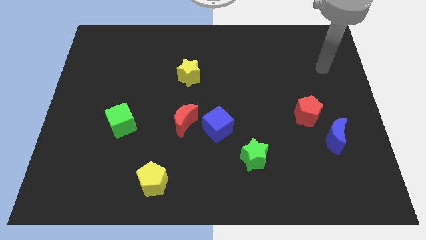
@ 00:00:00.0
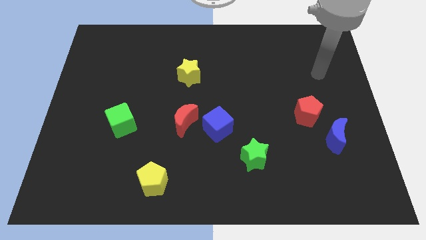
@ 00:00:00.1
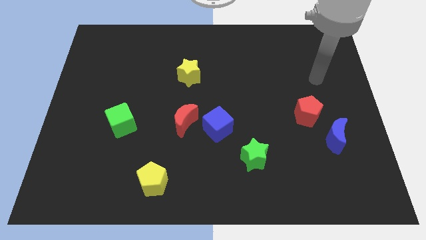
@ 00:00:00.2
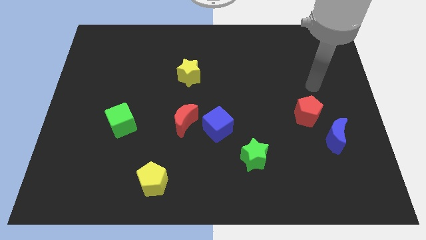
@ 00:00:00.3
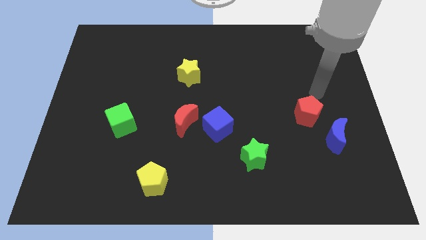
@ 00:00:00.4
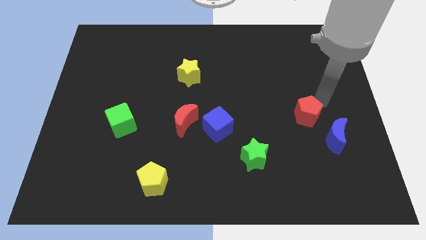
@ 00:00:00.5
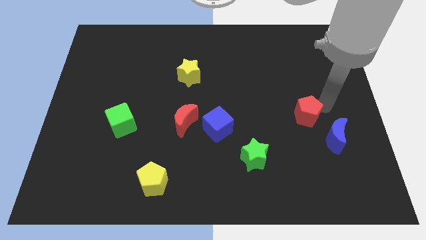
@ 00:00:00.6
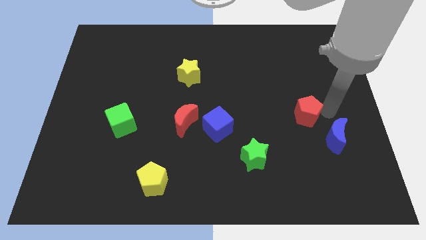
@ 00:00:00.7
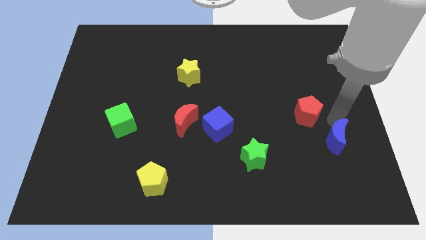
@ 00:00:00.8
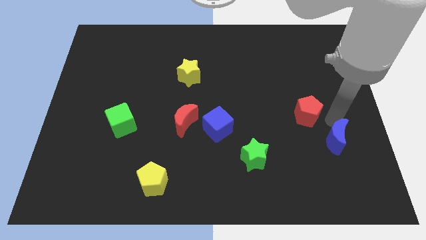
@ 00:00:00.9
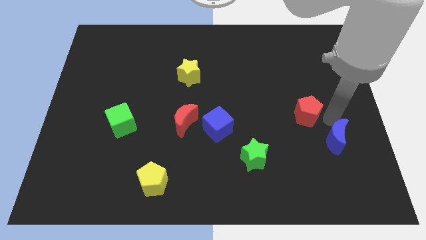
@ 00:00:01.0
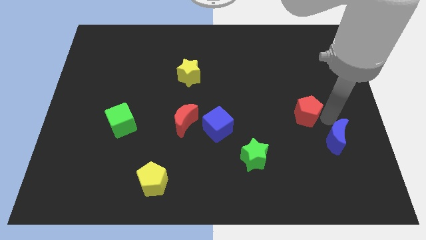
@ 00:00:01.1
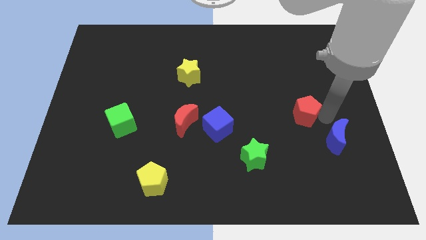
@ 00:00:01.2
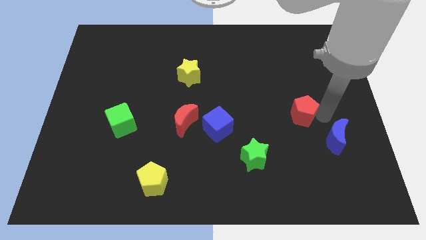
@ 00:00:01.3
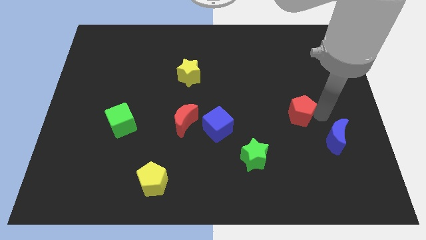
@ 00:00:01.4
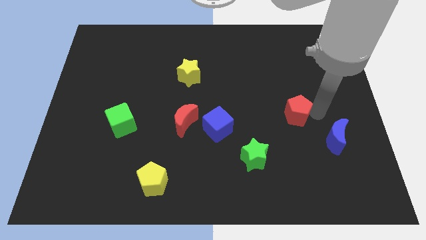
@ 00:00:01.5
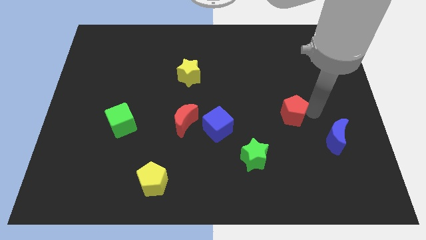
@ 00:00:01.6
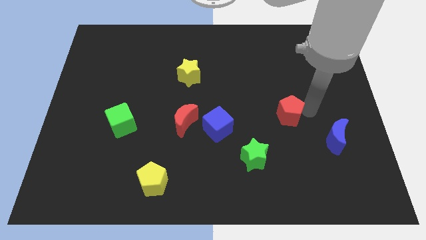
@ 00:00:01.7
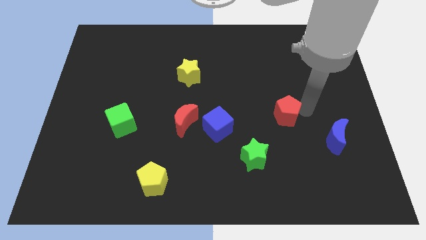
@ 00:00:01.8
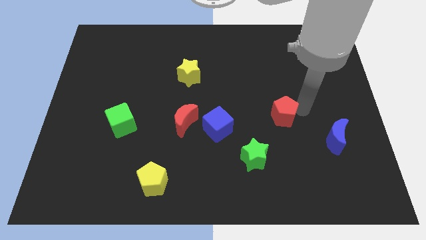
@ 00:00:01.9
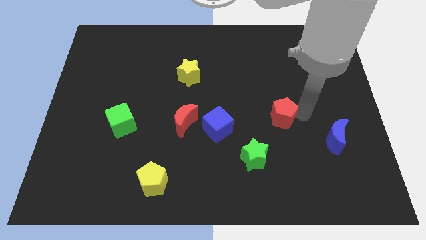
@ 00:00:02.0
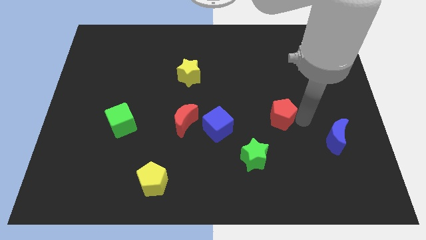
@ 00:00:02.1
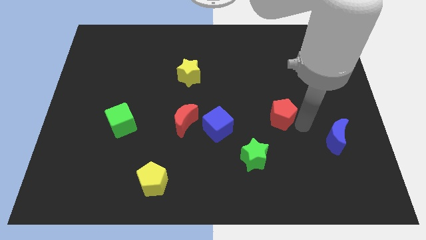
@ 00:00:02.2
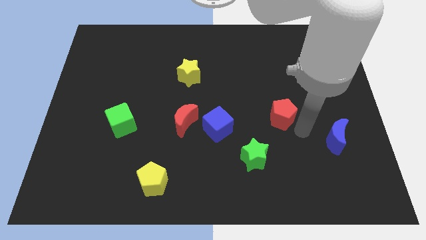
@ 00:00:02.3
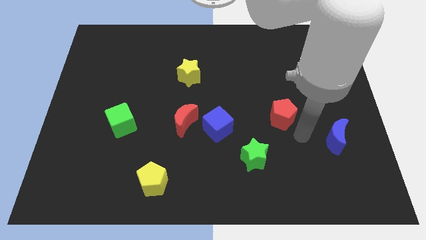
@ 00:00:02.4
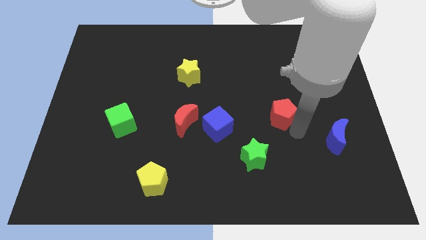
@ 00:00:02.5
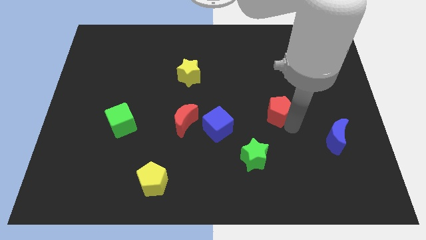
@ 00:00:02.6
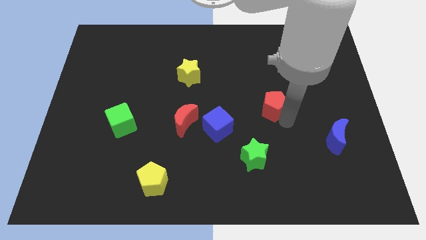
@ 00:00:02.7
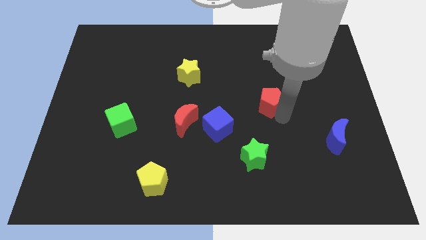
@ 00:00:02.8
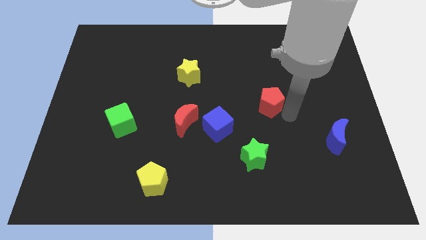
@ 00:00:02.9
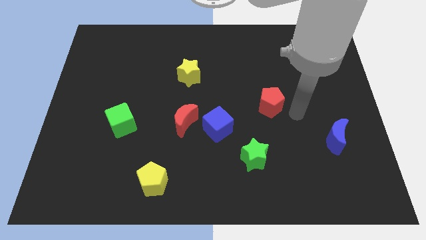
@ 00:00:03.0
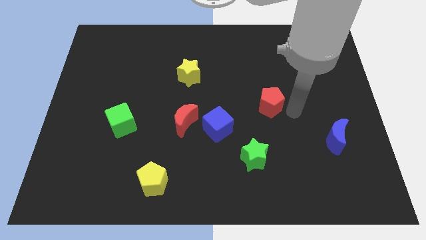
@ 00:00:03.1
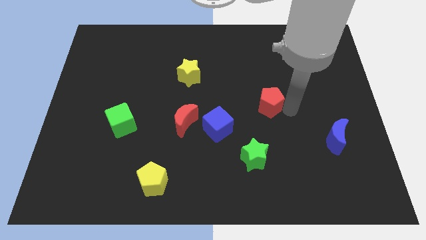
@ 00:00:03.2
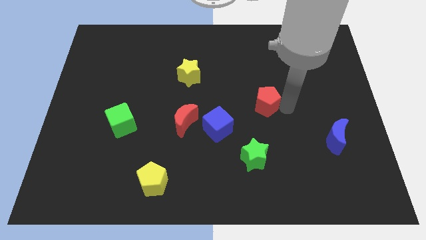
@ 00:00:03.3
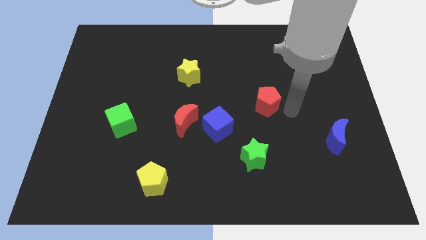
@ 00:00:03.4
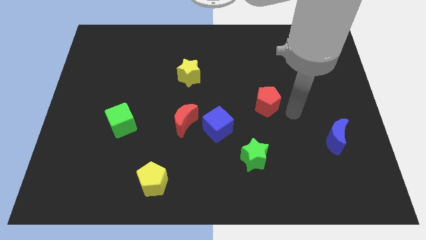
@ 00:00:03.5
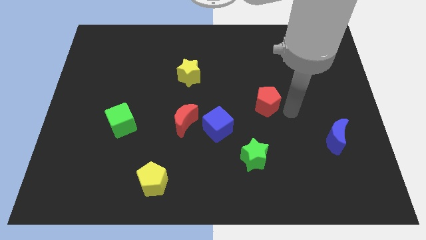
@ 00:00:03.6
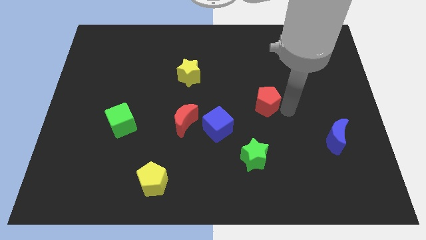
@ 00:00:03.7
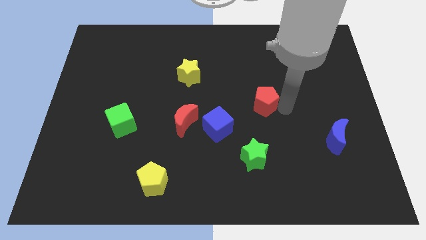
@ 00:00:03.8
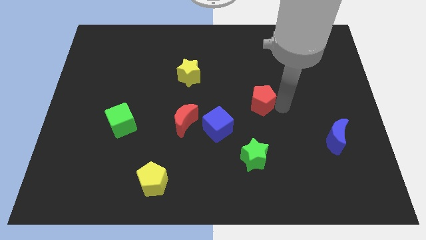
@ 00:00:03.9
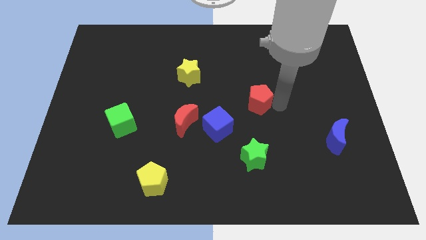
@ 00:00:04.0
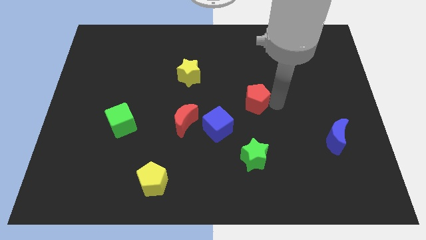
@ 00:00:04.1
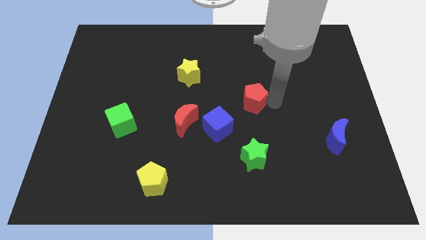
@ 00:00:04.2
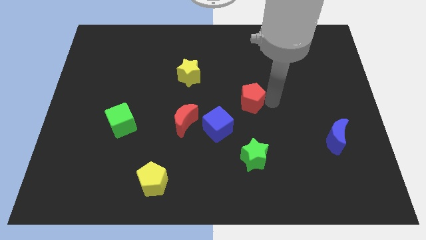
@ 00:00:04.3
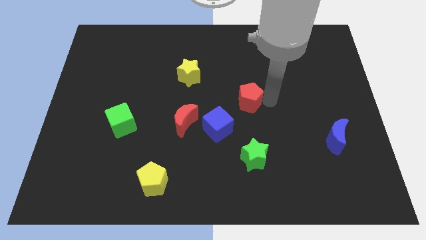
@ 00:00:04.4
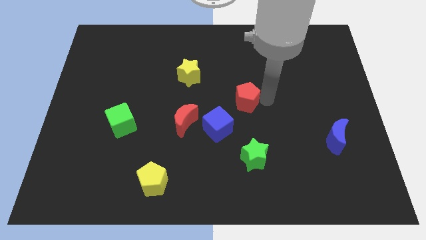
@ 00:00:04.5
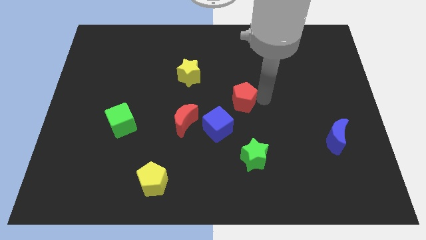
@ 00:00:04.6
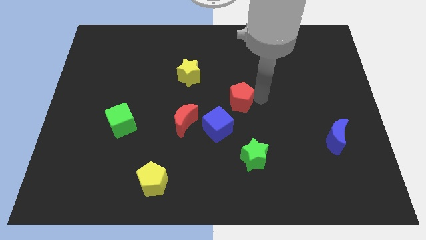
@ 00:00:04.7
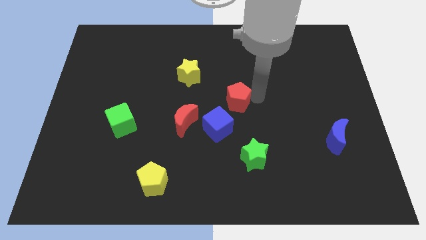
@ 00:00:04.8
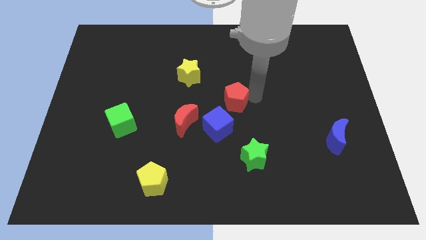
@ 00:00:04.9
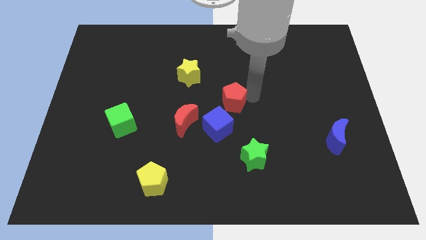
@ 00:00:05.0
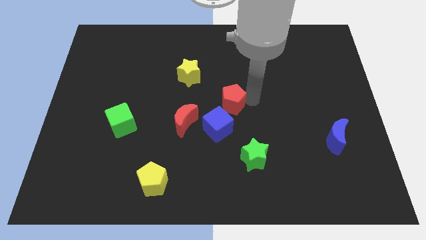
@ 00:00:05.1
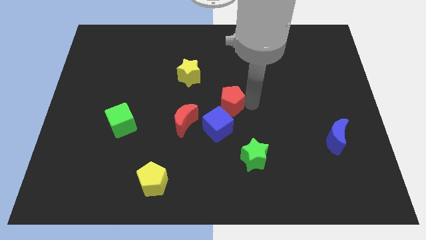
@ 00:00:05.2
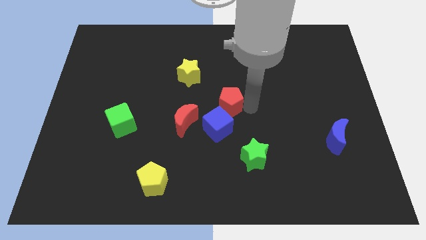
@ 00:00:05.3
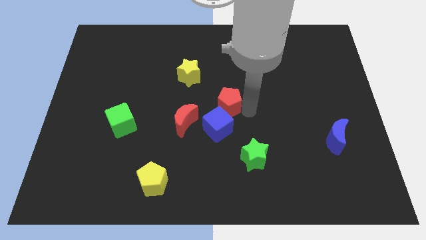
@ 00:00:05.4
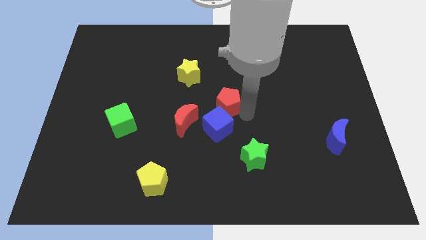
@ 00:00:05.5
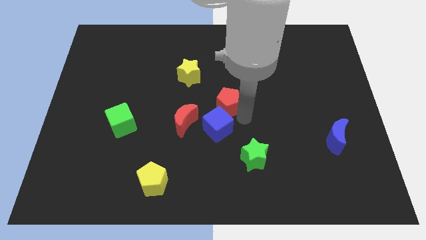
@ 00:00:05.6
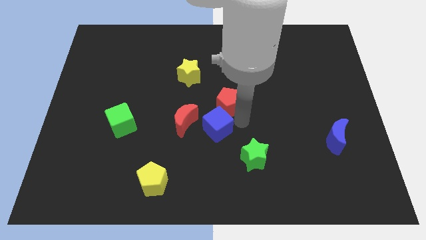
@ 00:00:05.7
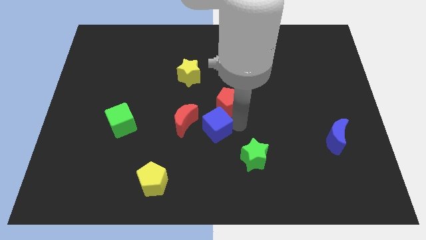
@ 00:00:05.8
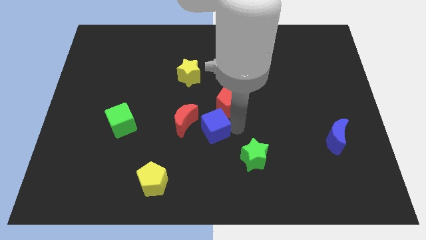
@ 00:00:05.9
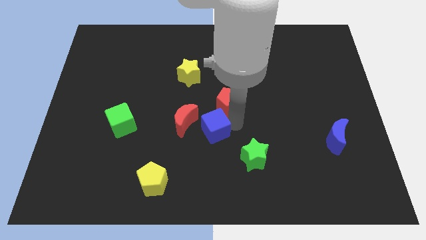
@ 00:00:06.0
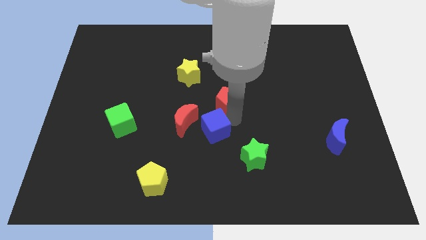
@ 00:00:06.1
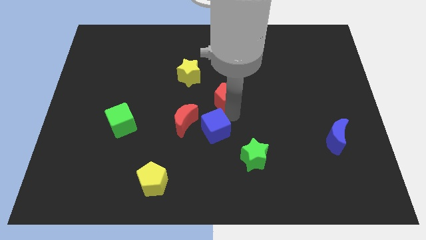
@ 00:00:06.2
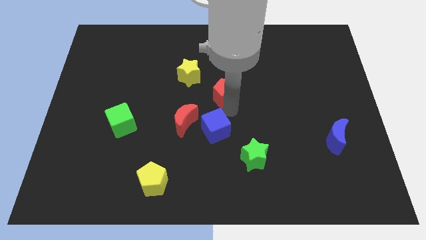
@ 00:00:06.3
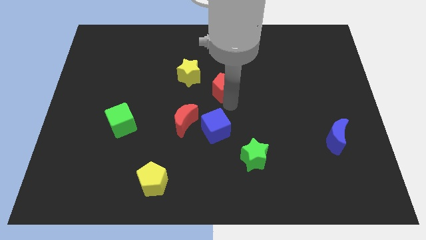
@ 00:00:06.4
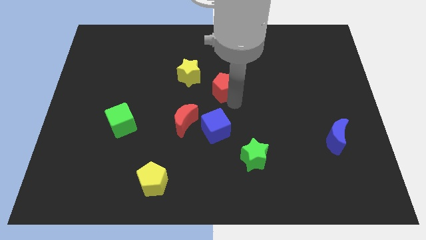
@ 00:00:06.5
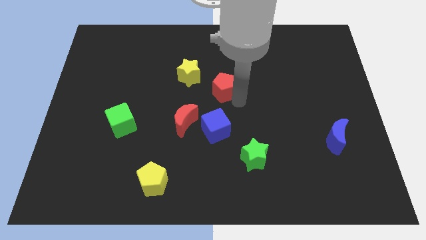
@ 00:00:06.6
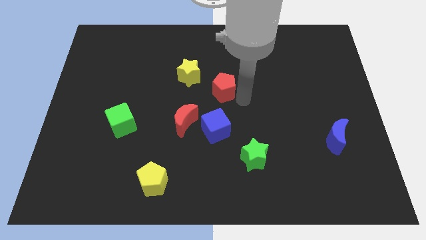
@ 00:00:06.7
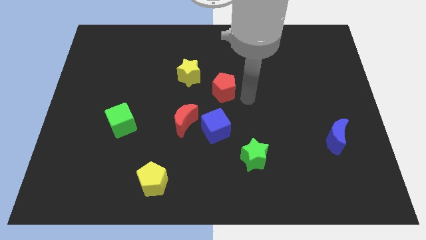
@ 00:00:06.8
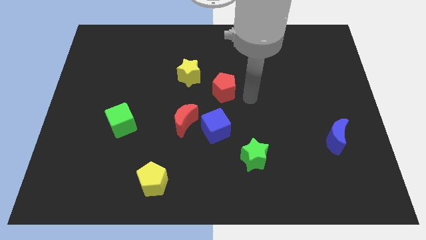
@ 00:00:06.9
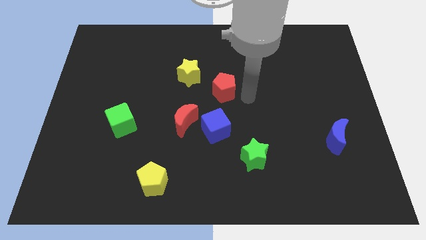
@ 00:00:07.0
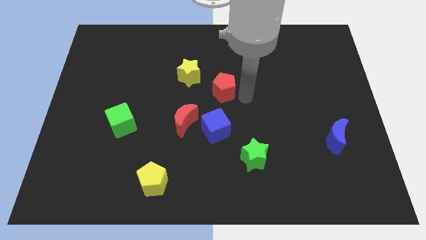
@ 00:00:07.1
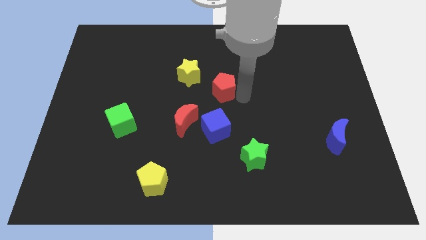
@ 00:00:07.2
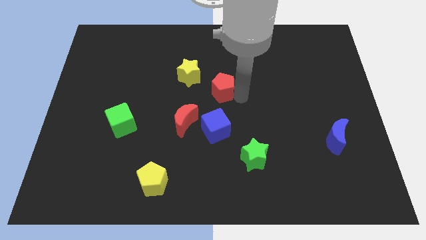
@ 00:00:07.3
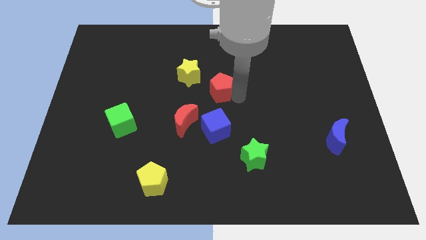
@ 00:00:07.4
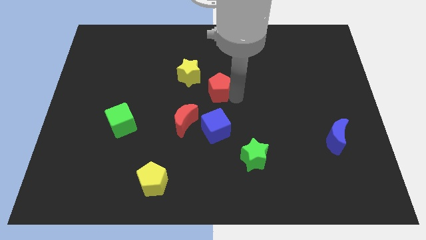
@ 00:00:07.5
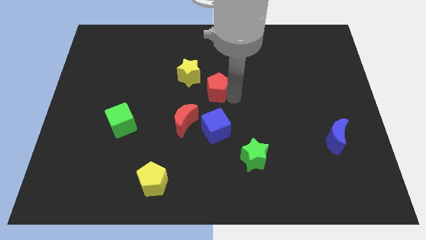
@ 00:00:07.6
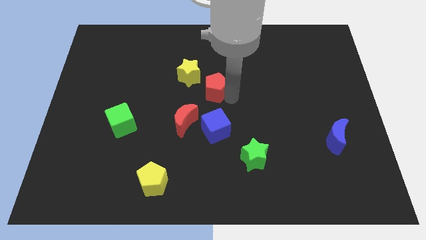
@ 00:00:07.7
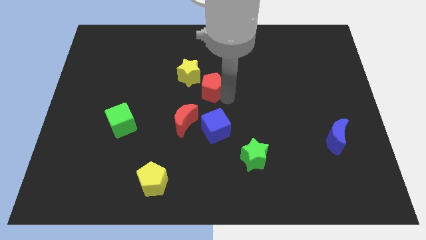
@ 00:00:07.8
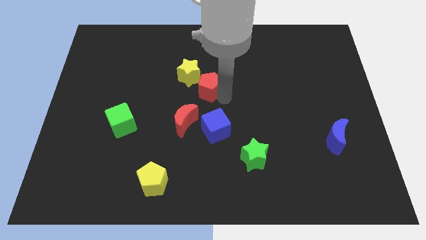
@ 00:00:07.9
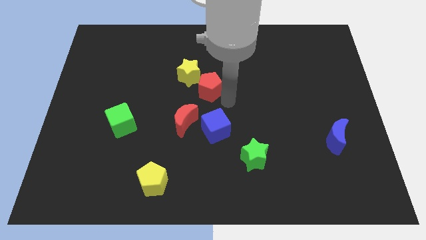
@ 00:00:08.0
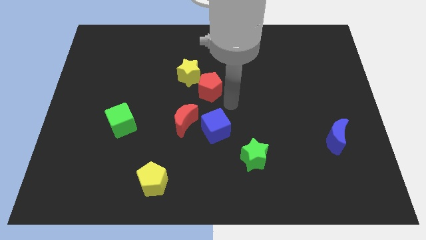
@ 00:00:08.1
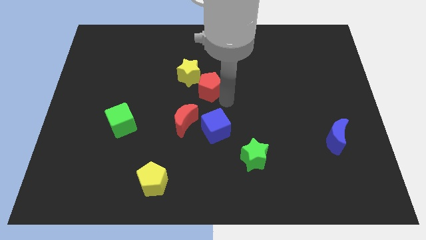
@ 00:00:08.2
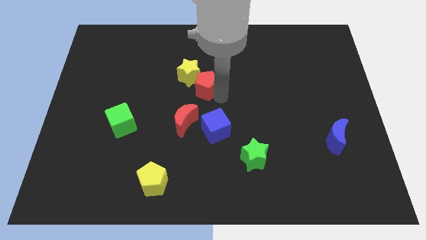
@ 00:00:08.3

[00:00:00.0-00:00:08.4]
move the red pentagon next to the yellow star
